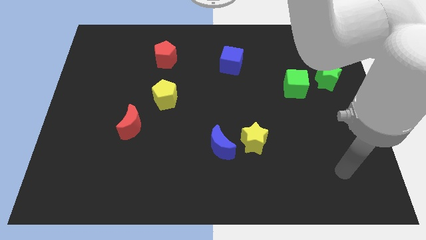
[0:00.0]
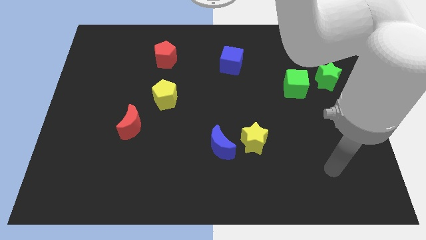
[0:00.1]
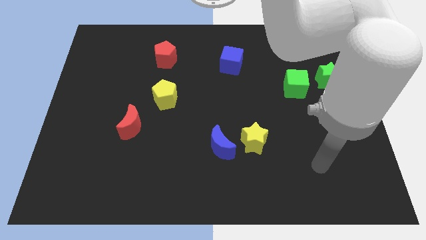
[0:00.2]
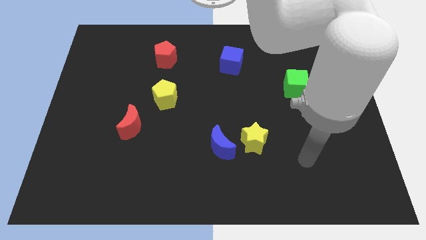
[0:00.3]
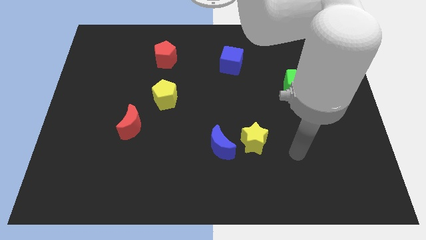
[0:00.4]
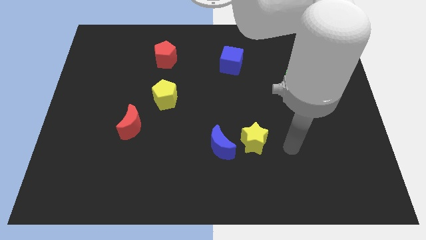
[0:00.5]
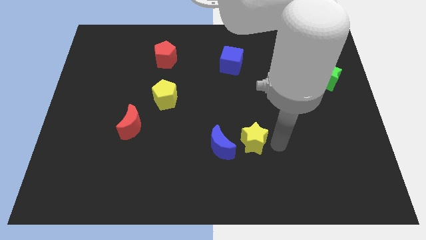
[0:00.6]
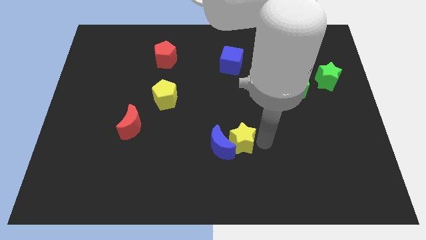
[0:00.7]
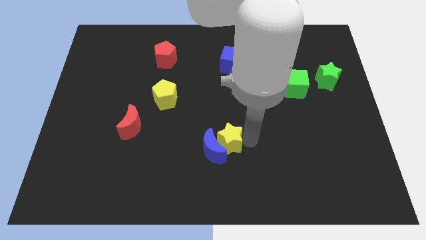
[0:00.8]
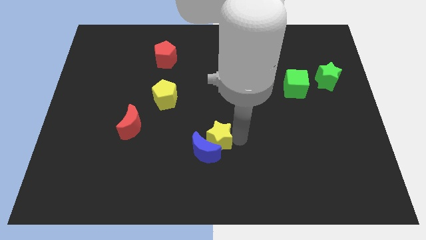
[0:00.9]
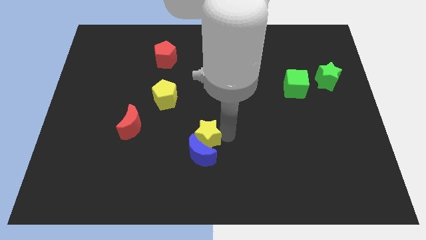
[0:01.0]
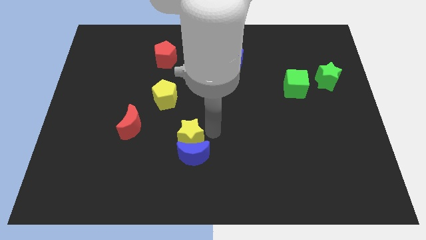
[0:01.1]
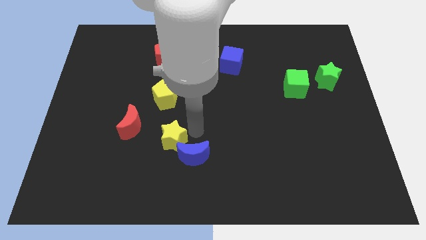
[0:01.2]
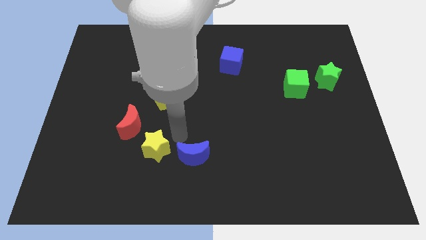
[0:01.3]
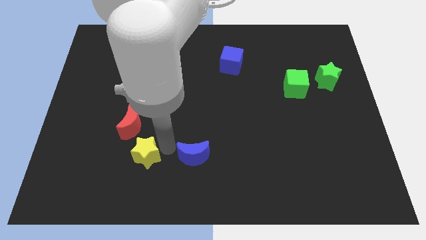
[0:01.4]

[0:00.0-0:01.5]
move the blue moon away from the yellow star

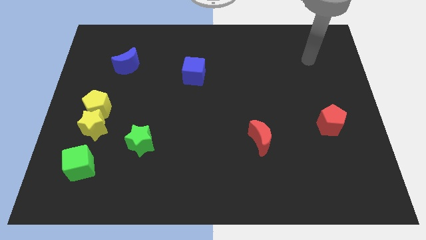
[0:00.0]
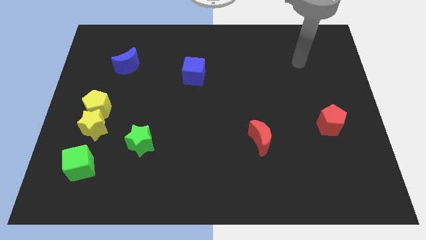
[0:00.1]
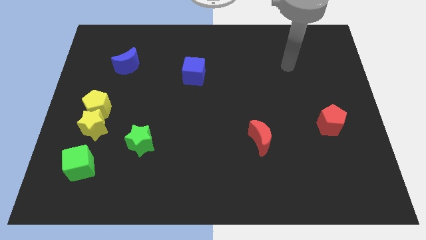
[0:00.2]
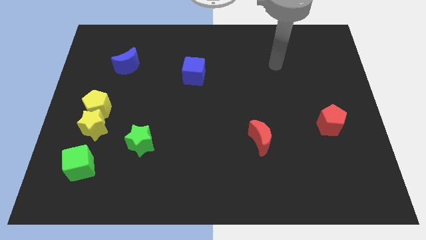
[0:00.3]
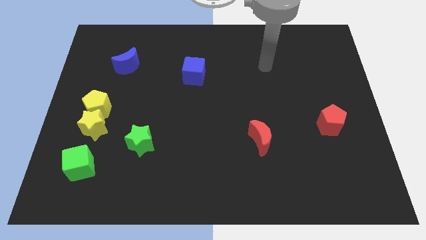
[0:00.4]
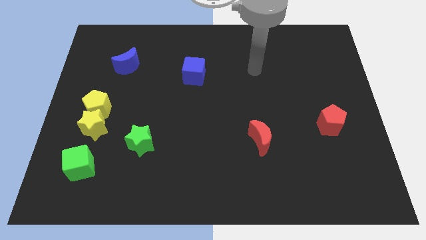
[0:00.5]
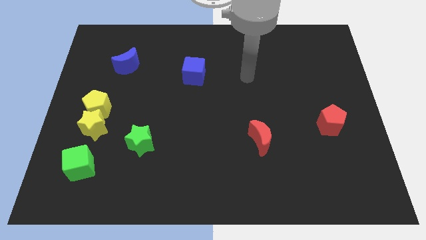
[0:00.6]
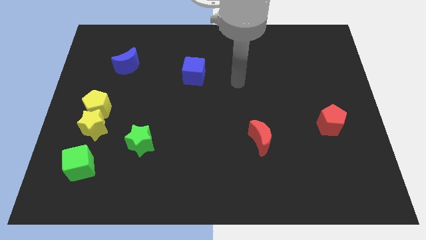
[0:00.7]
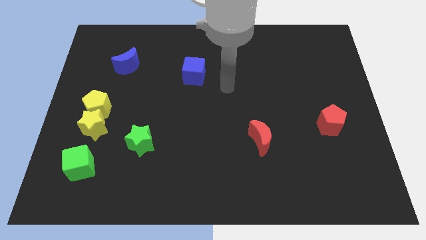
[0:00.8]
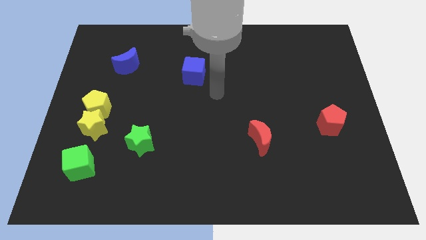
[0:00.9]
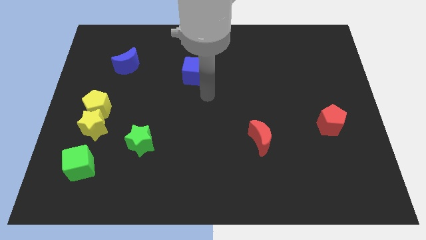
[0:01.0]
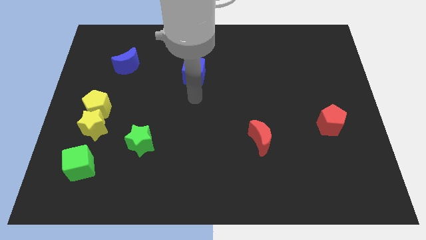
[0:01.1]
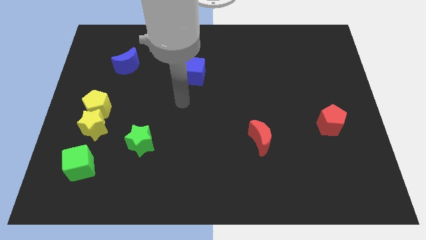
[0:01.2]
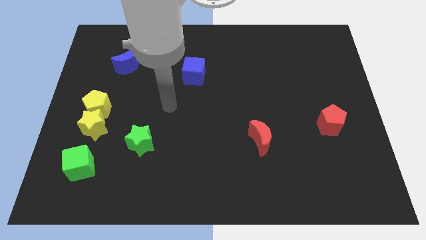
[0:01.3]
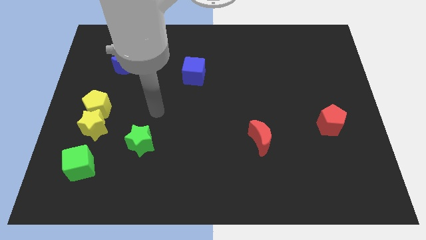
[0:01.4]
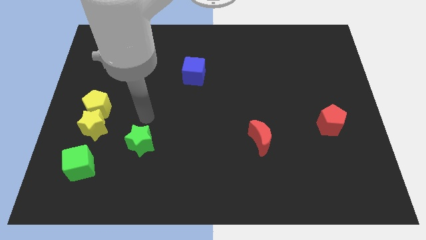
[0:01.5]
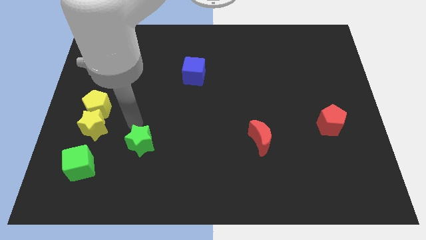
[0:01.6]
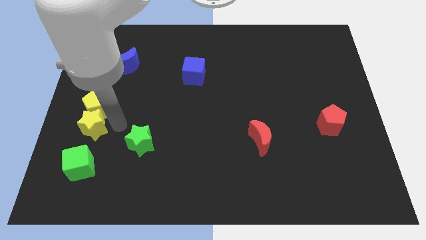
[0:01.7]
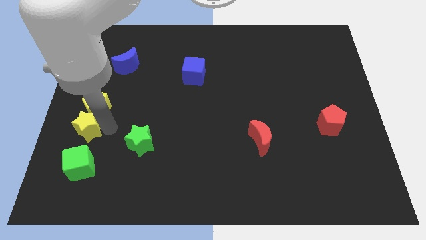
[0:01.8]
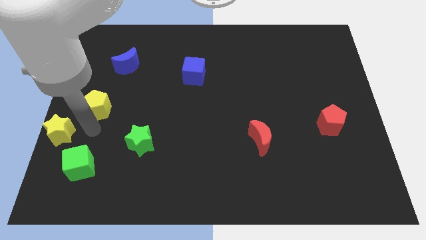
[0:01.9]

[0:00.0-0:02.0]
pull the yellow pentagon apart from the yellow star

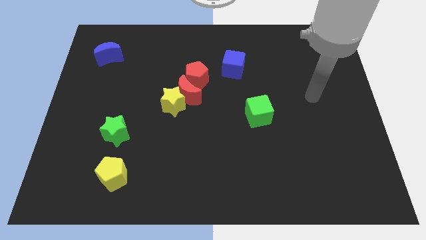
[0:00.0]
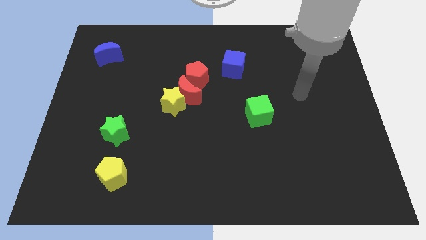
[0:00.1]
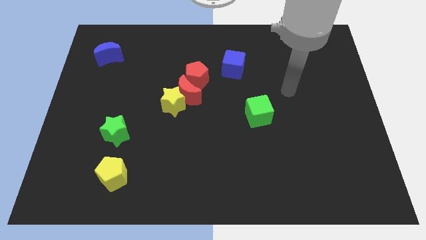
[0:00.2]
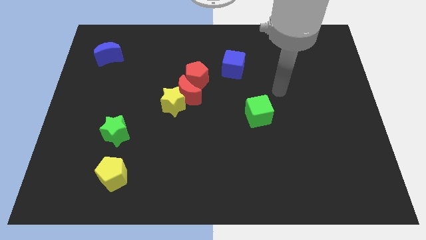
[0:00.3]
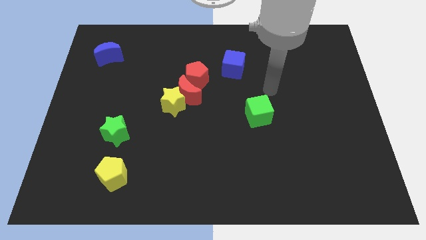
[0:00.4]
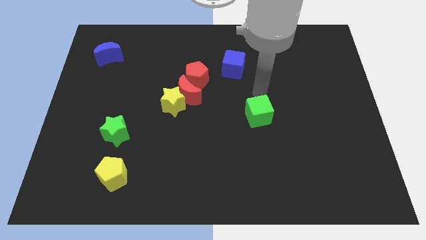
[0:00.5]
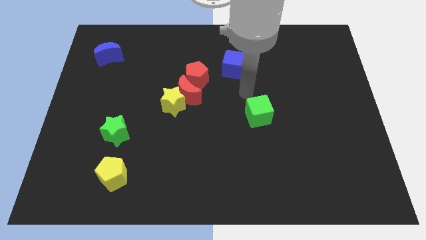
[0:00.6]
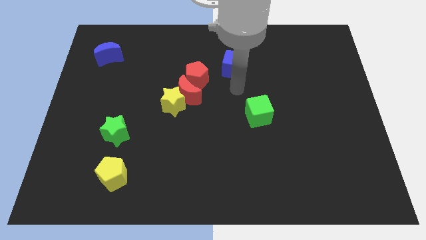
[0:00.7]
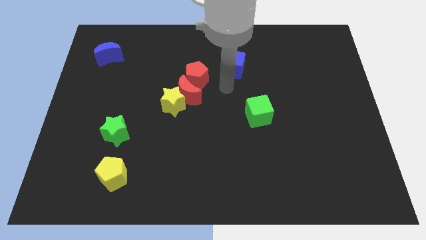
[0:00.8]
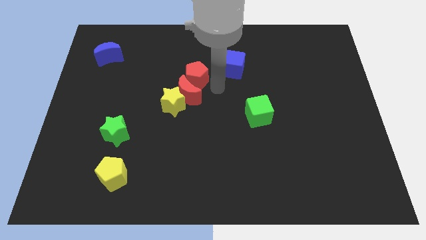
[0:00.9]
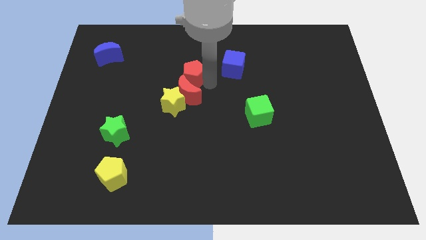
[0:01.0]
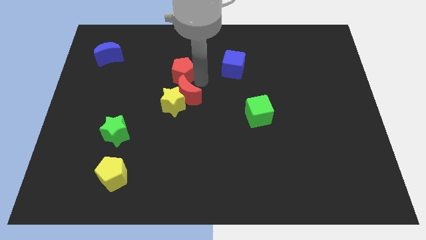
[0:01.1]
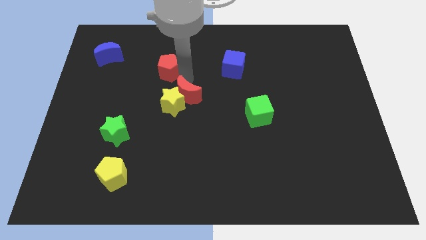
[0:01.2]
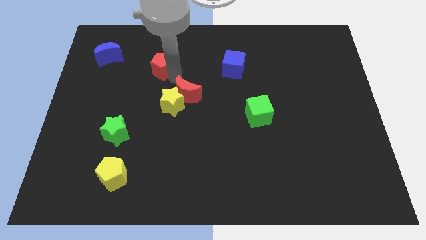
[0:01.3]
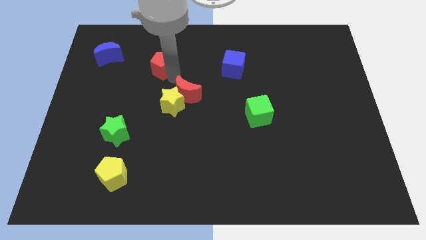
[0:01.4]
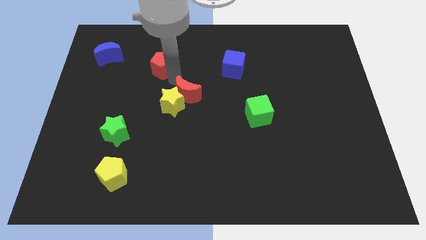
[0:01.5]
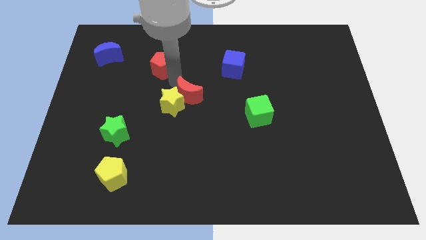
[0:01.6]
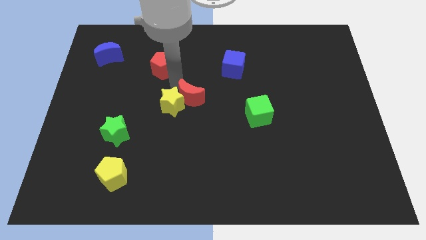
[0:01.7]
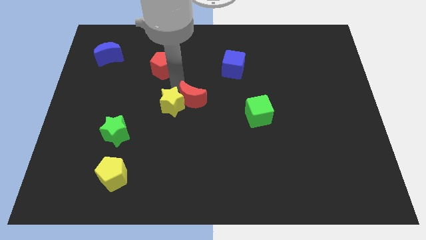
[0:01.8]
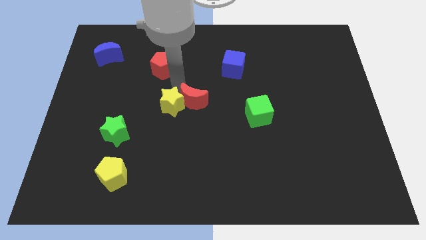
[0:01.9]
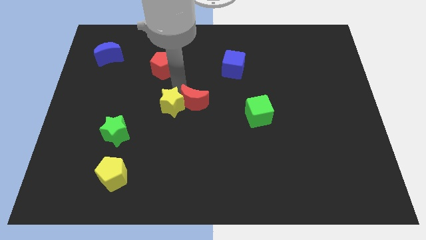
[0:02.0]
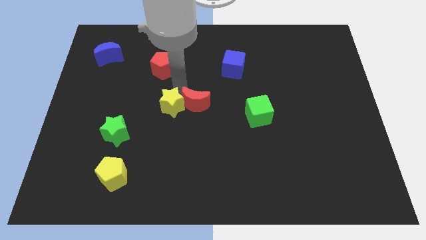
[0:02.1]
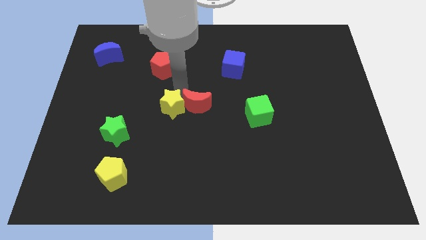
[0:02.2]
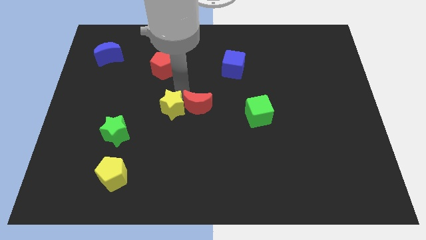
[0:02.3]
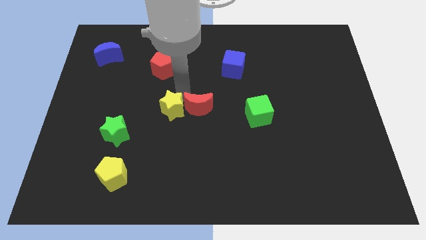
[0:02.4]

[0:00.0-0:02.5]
move the red moon away from the yellow star and red pentagon

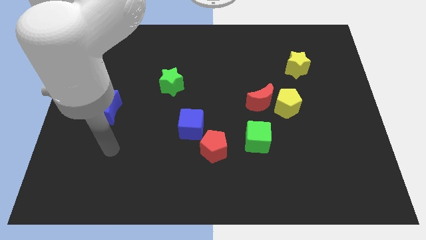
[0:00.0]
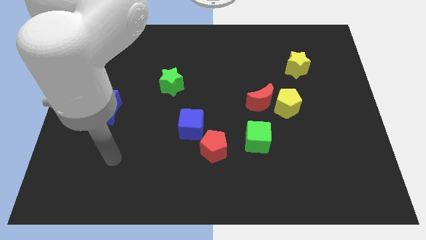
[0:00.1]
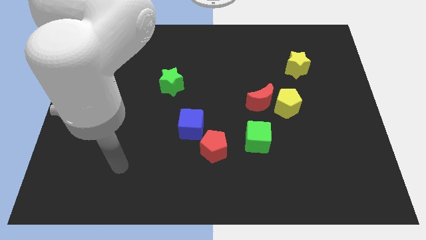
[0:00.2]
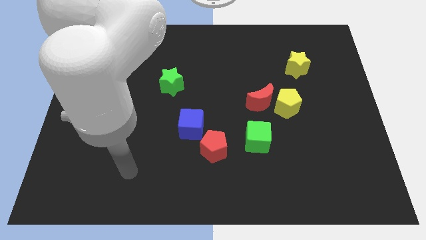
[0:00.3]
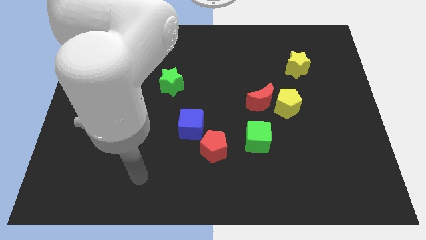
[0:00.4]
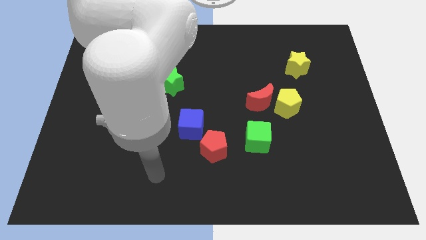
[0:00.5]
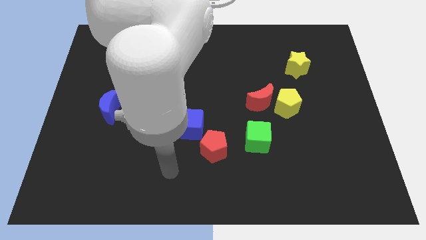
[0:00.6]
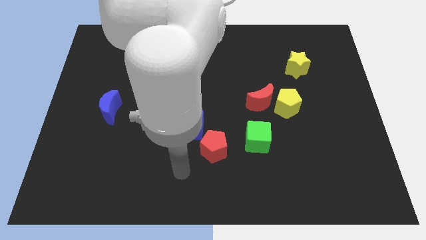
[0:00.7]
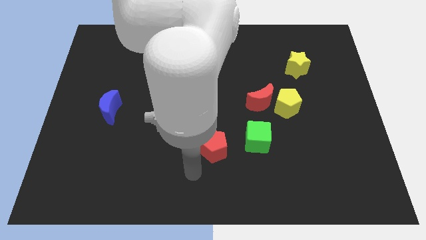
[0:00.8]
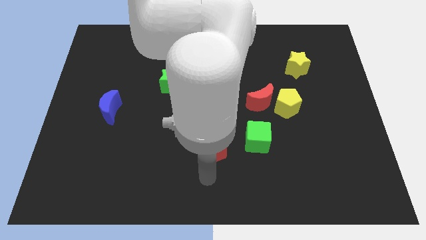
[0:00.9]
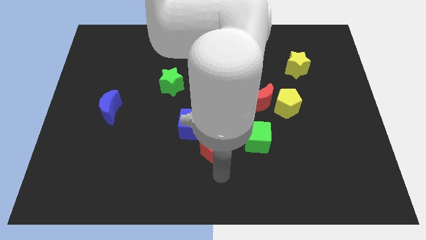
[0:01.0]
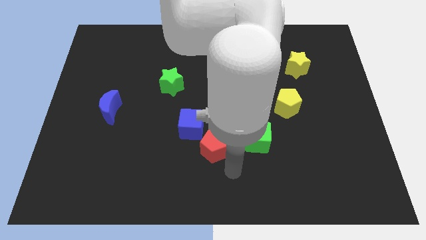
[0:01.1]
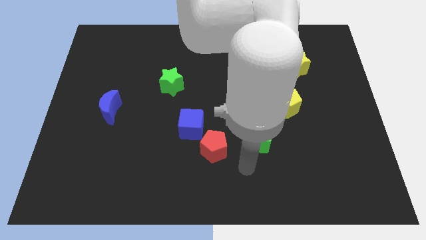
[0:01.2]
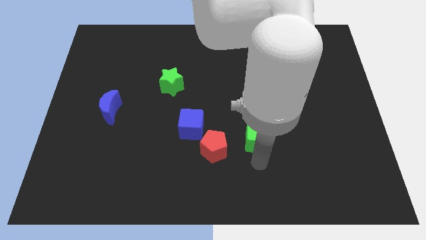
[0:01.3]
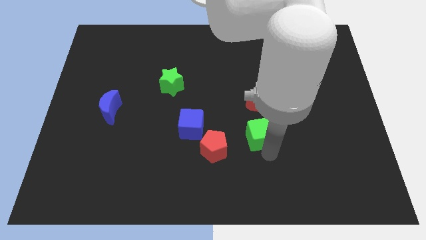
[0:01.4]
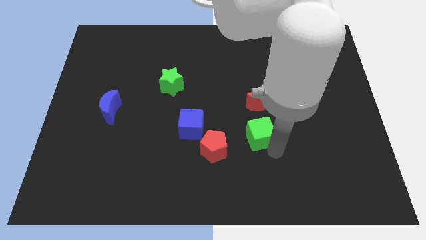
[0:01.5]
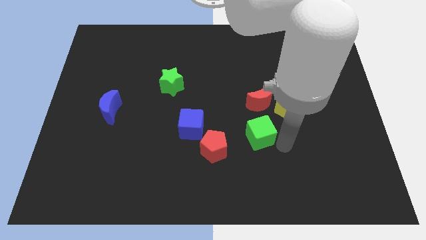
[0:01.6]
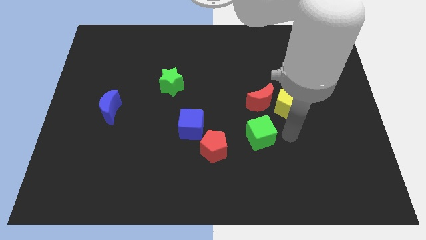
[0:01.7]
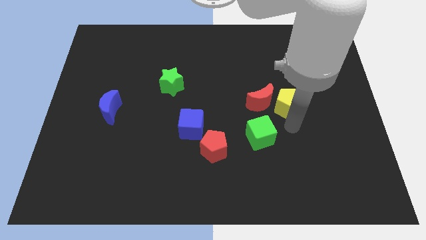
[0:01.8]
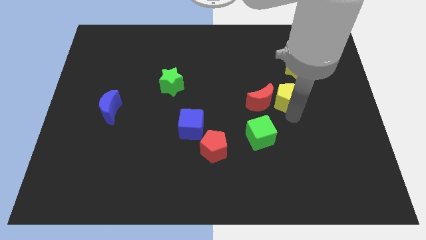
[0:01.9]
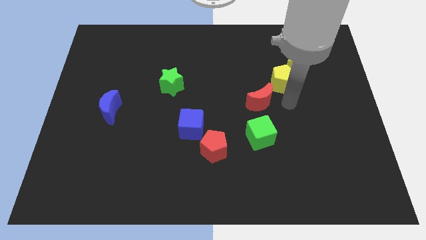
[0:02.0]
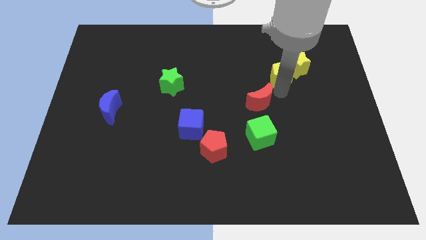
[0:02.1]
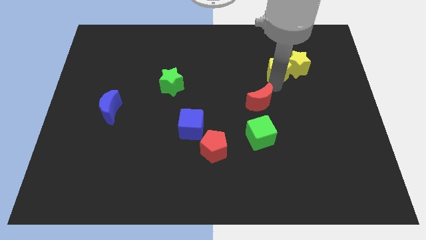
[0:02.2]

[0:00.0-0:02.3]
pull the red moon apart from the yellow pentagon

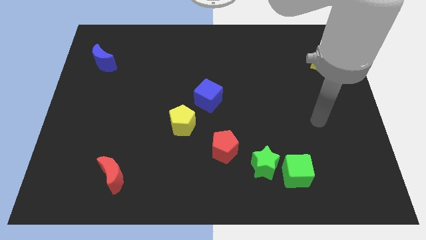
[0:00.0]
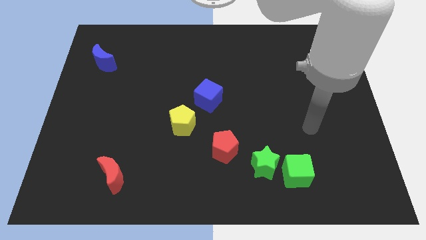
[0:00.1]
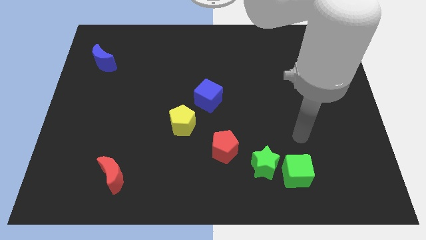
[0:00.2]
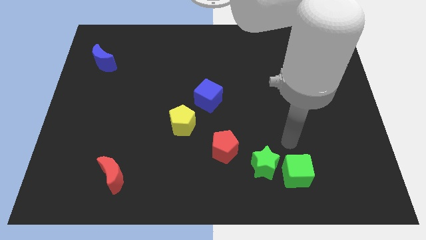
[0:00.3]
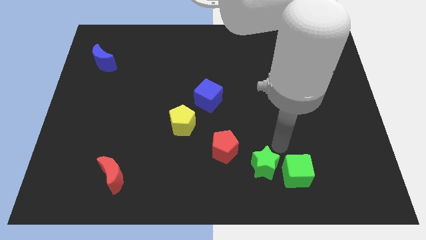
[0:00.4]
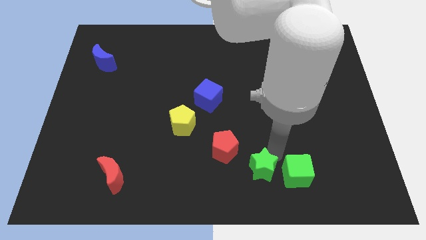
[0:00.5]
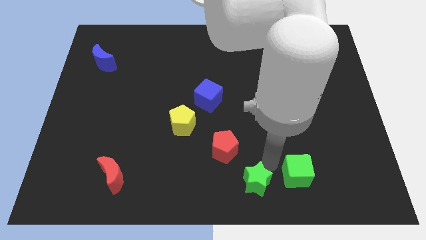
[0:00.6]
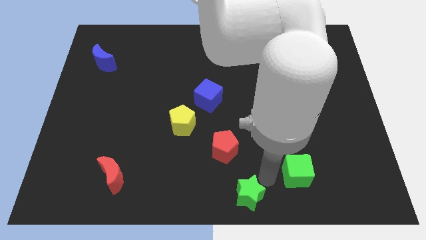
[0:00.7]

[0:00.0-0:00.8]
move the green cube away from the green star
